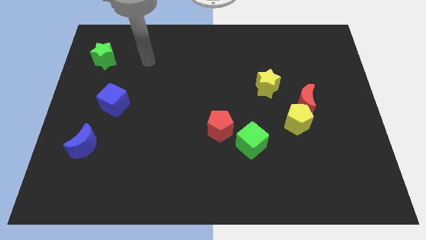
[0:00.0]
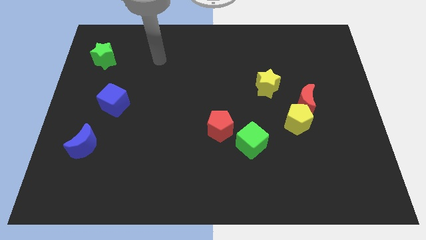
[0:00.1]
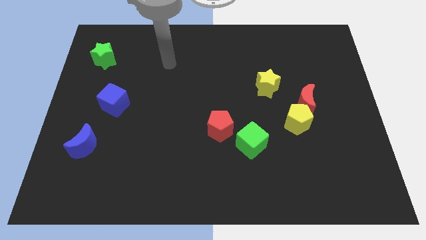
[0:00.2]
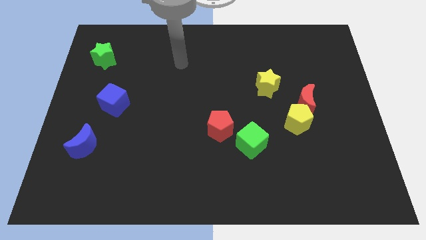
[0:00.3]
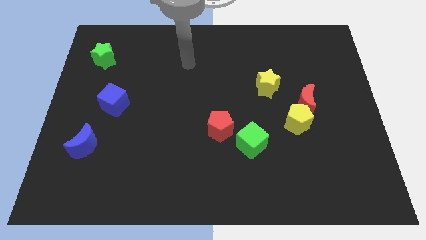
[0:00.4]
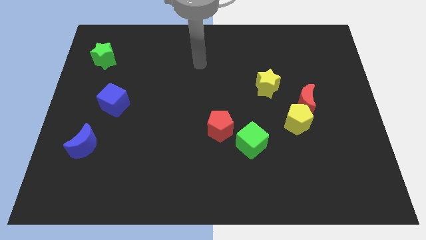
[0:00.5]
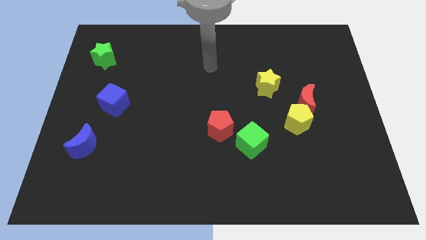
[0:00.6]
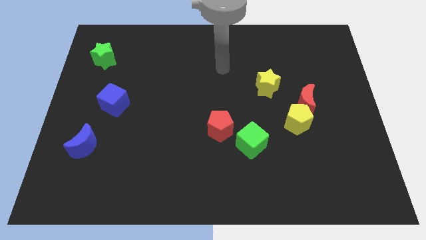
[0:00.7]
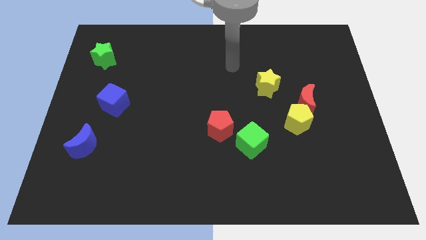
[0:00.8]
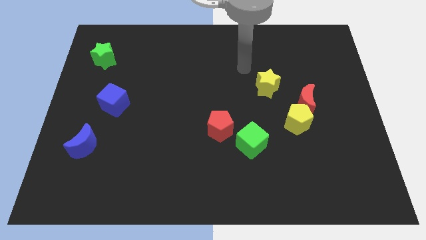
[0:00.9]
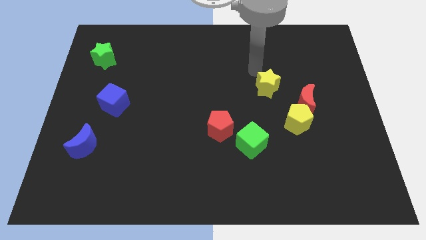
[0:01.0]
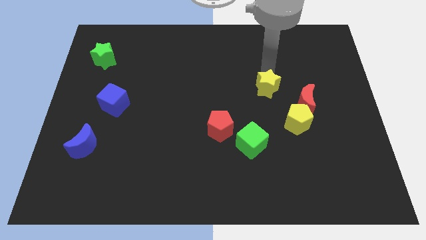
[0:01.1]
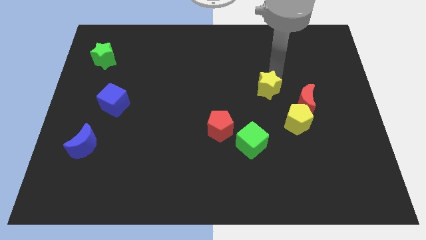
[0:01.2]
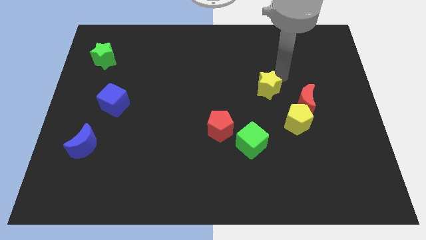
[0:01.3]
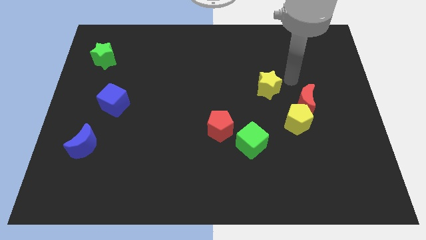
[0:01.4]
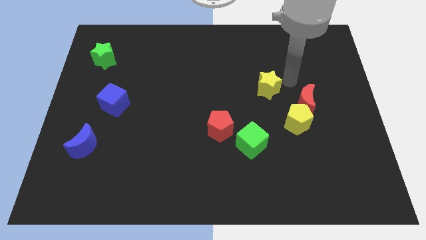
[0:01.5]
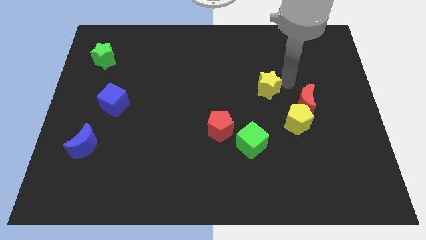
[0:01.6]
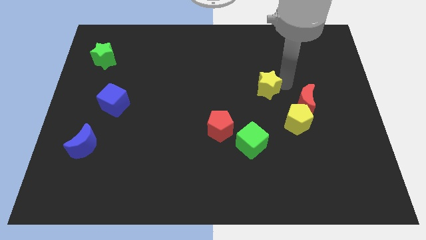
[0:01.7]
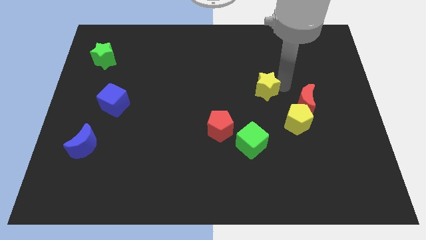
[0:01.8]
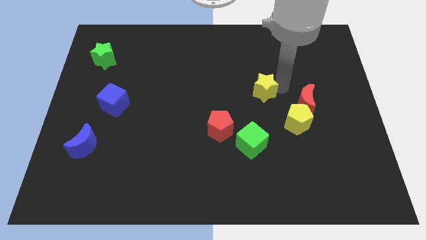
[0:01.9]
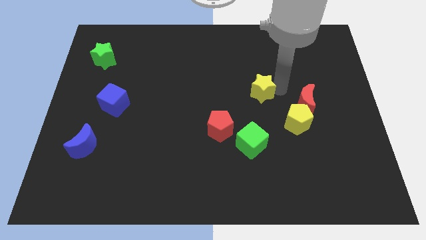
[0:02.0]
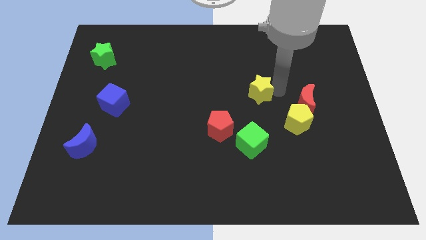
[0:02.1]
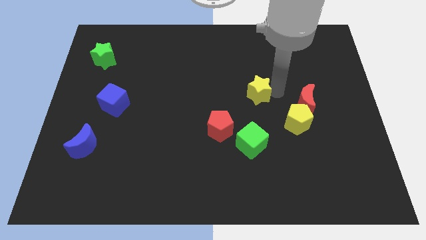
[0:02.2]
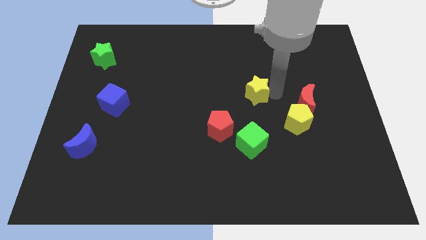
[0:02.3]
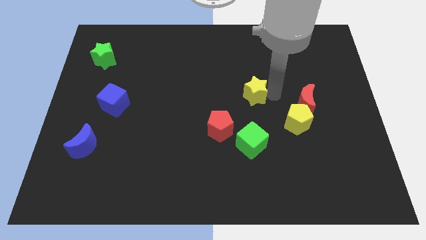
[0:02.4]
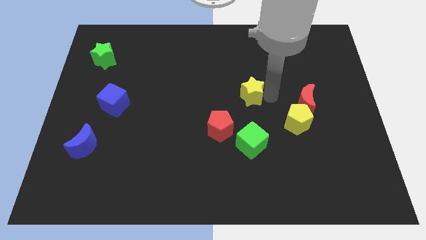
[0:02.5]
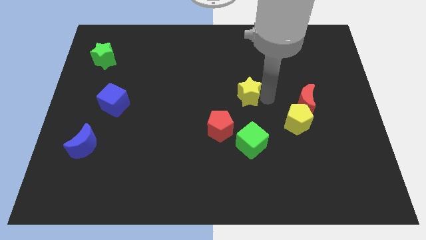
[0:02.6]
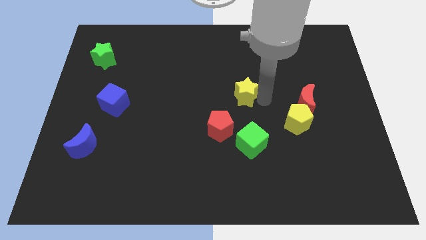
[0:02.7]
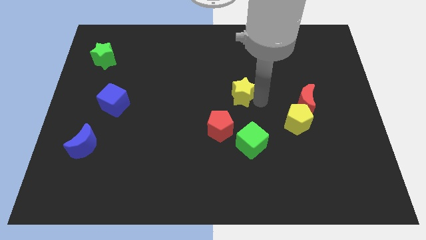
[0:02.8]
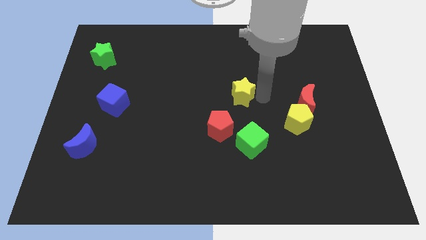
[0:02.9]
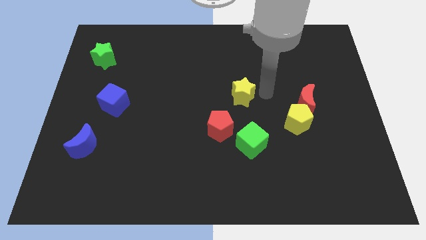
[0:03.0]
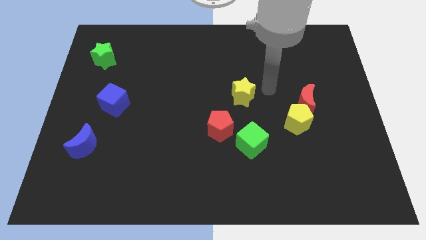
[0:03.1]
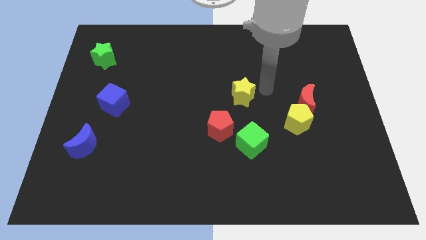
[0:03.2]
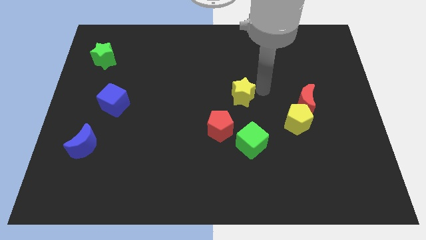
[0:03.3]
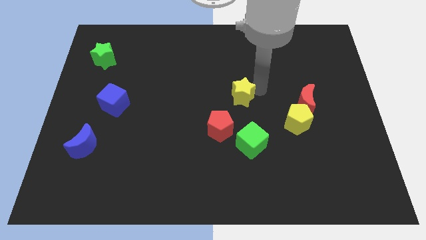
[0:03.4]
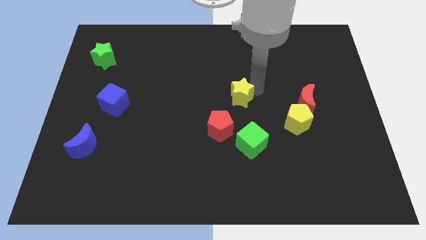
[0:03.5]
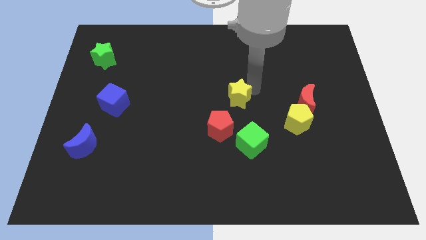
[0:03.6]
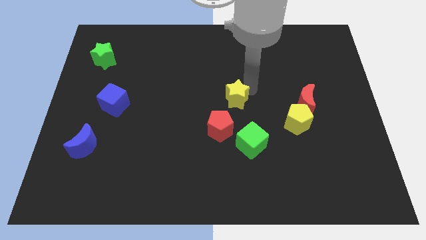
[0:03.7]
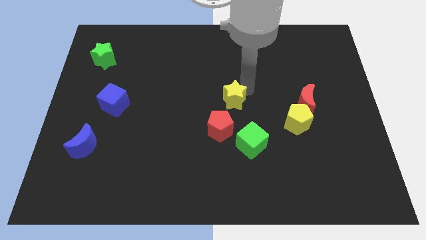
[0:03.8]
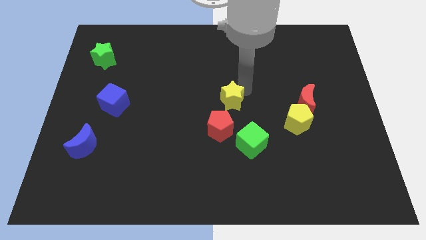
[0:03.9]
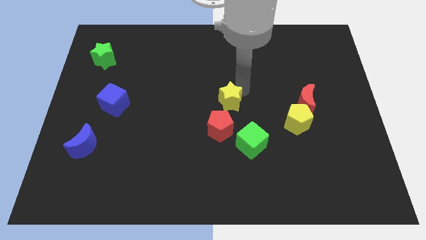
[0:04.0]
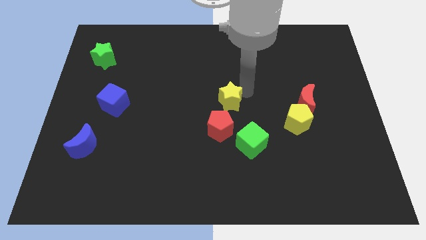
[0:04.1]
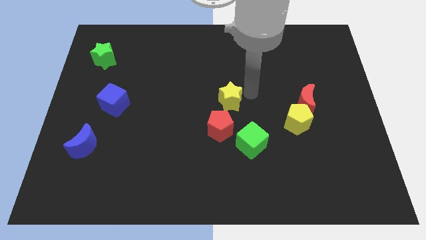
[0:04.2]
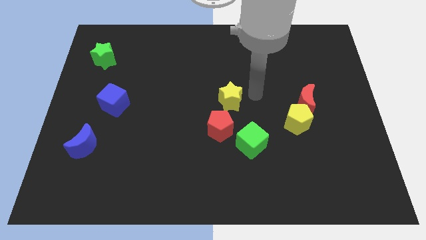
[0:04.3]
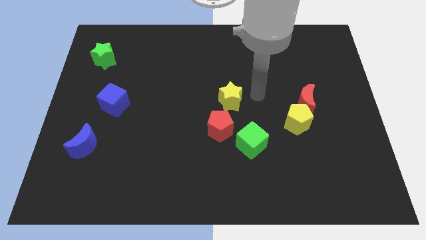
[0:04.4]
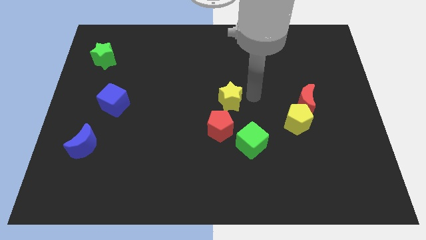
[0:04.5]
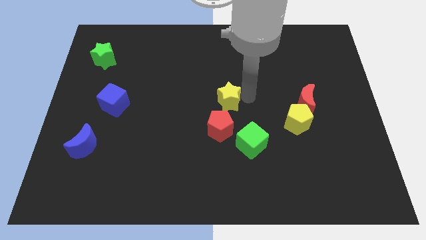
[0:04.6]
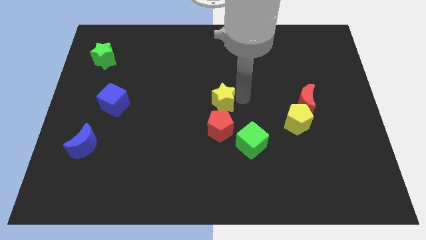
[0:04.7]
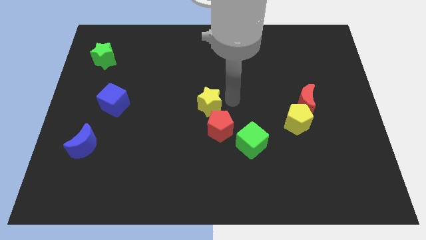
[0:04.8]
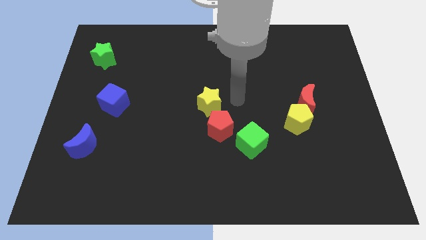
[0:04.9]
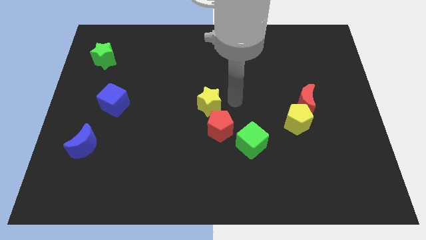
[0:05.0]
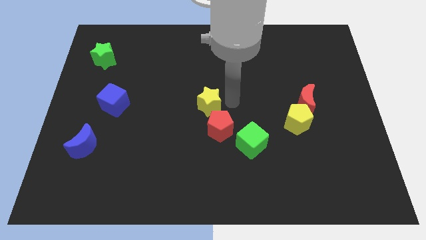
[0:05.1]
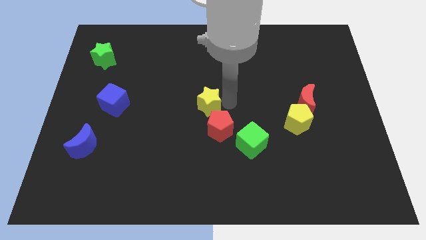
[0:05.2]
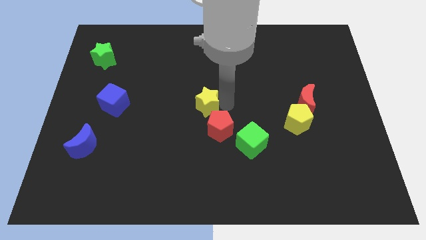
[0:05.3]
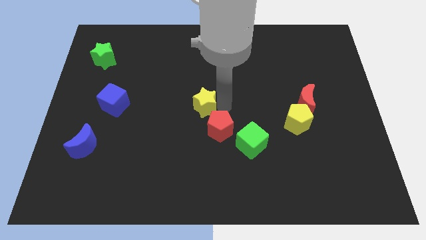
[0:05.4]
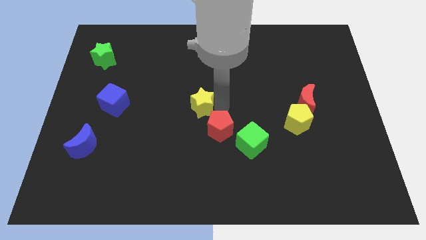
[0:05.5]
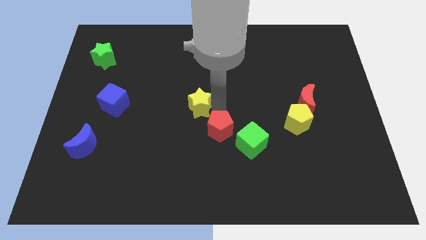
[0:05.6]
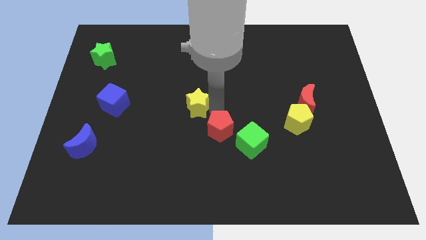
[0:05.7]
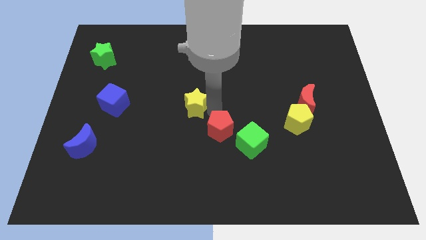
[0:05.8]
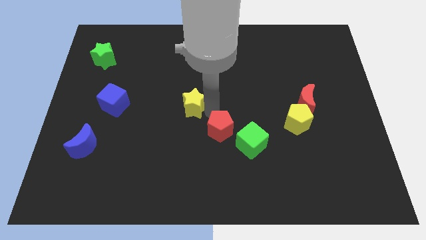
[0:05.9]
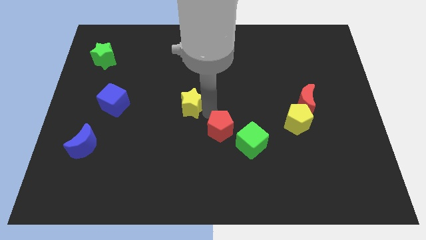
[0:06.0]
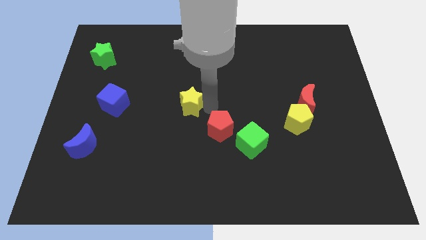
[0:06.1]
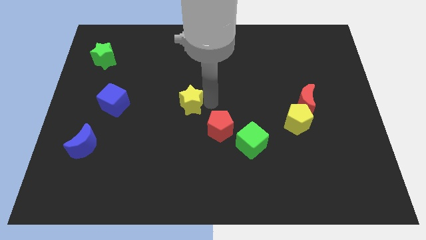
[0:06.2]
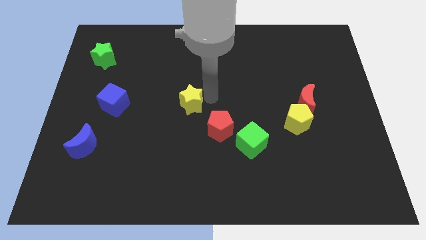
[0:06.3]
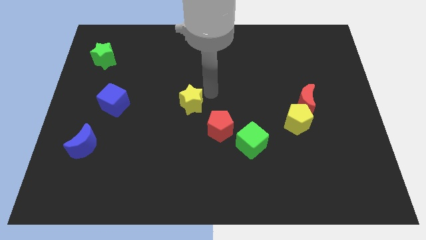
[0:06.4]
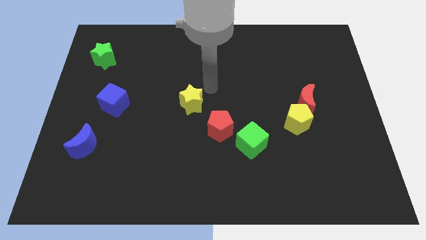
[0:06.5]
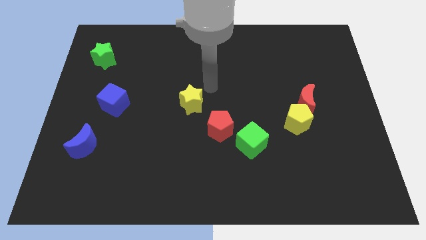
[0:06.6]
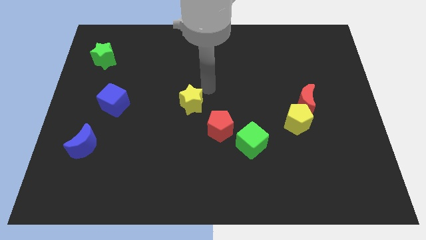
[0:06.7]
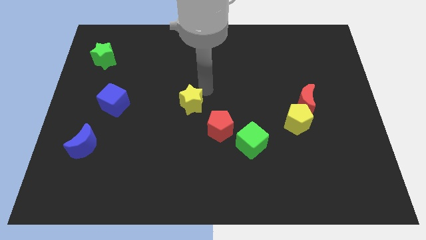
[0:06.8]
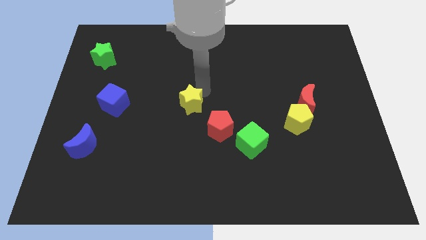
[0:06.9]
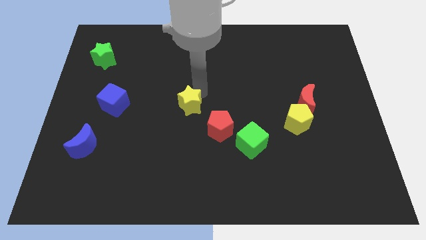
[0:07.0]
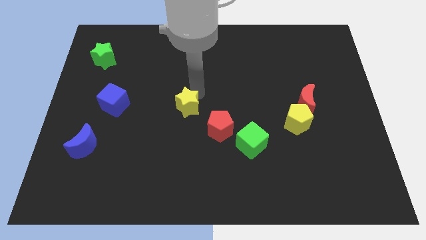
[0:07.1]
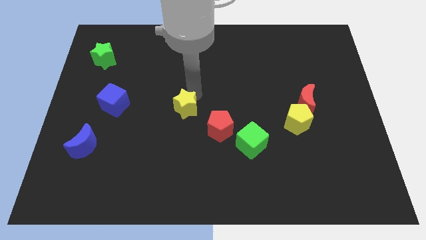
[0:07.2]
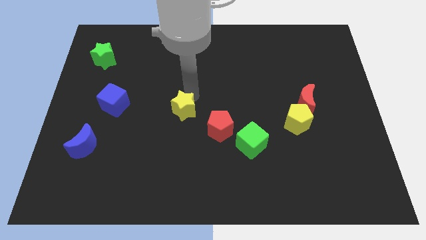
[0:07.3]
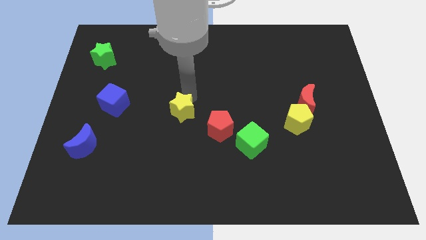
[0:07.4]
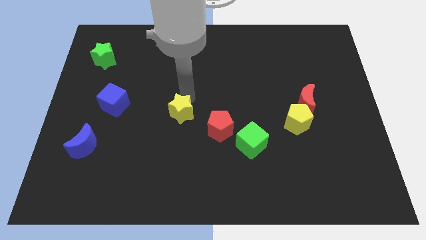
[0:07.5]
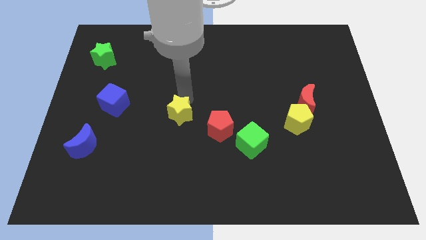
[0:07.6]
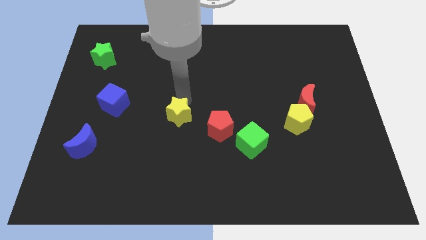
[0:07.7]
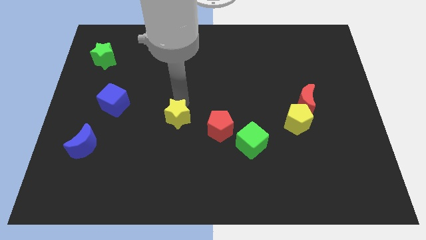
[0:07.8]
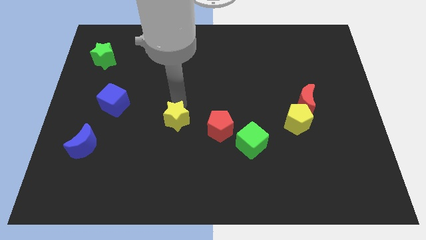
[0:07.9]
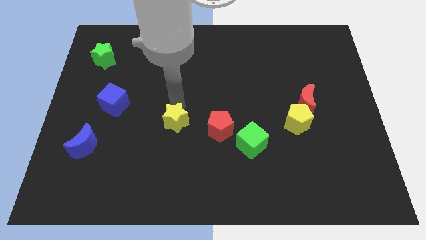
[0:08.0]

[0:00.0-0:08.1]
push the yellow star downwards and then to the left
